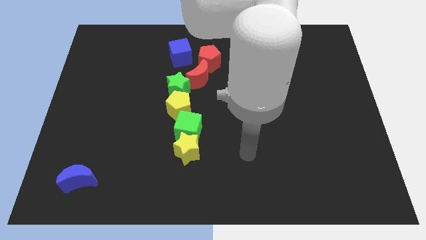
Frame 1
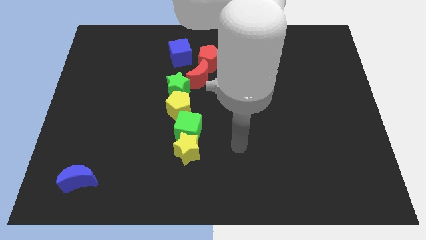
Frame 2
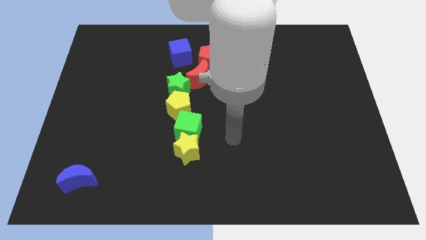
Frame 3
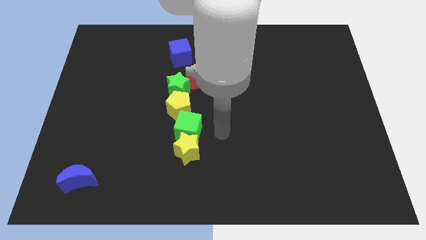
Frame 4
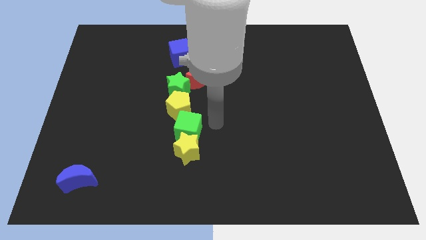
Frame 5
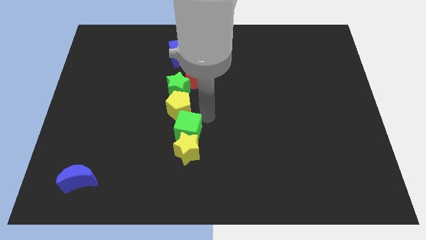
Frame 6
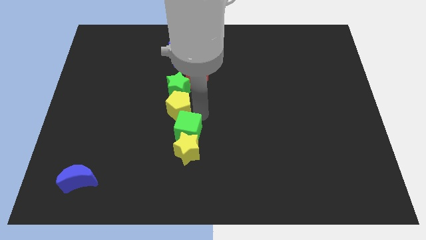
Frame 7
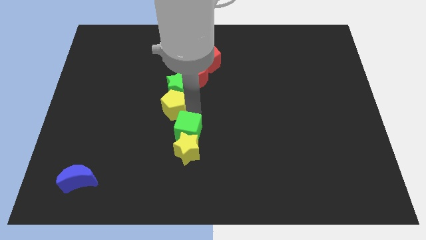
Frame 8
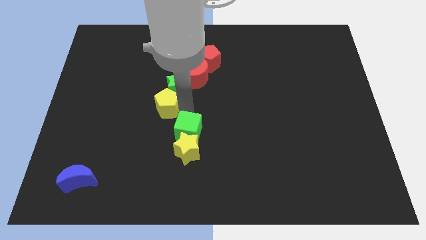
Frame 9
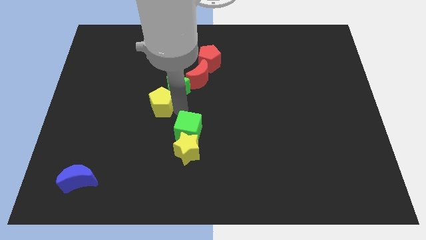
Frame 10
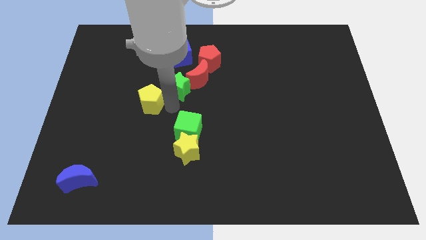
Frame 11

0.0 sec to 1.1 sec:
slightly move the yellow pentagon to the left

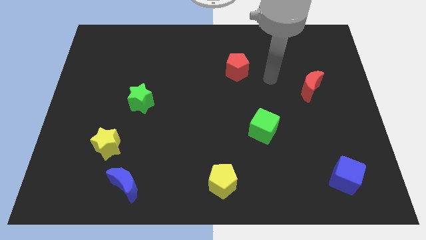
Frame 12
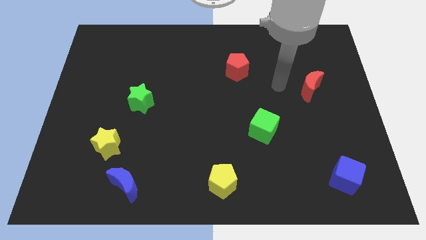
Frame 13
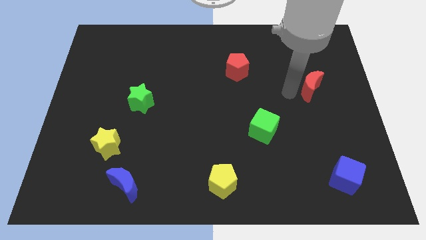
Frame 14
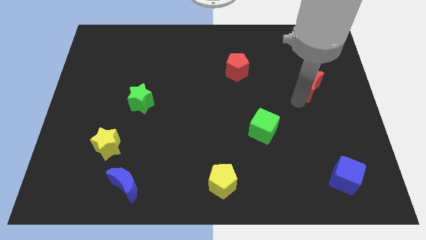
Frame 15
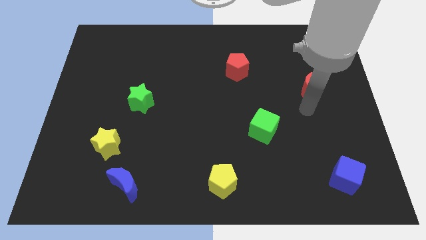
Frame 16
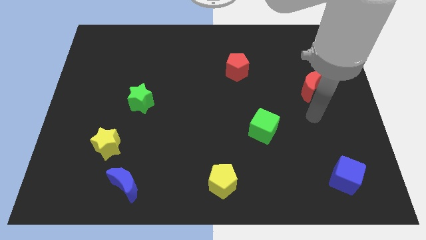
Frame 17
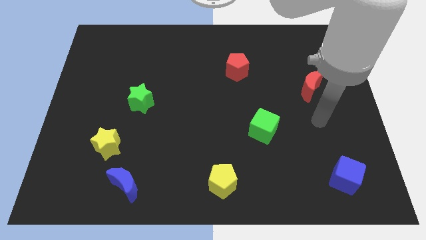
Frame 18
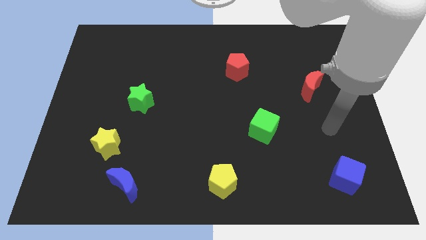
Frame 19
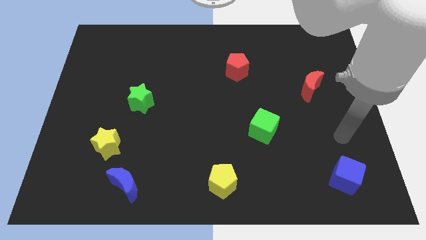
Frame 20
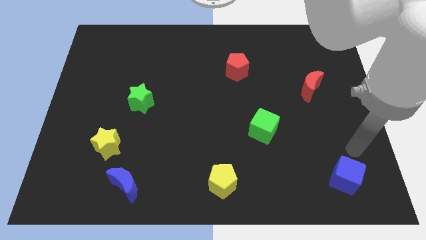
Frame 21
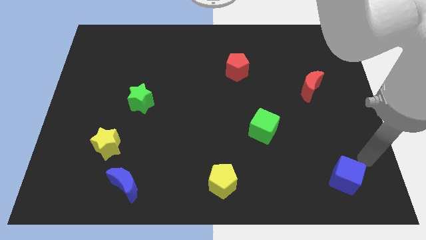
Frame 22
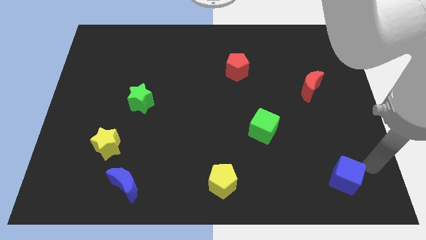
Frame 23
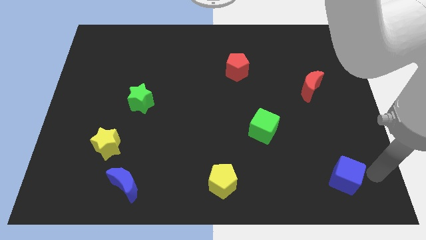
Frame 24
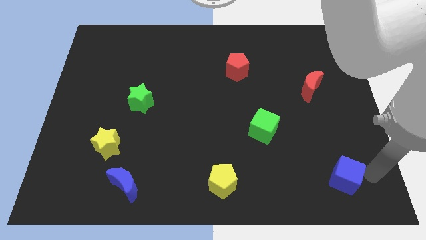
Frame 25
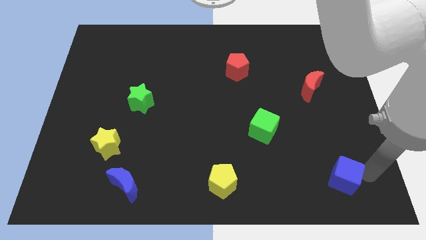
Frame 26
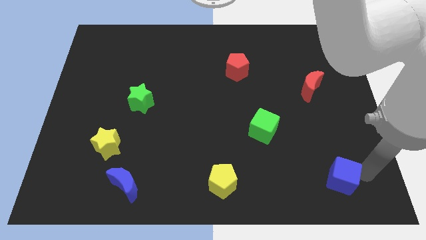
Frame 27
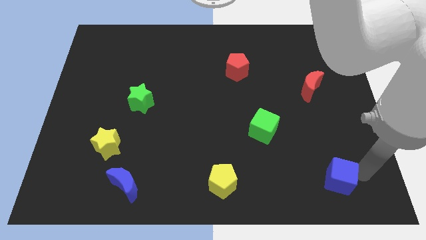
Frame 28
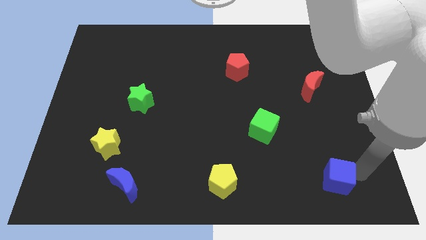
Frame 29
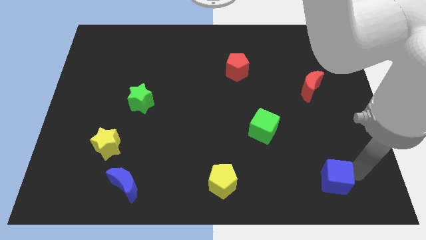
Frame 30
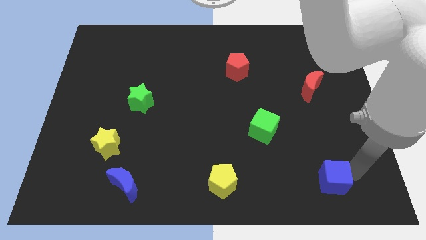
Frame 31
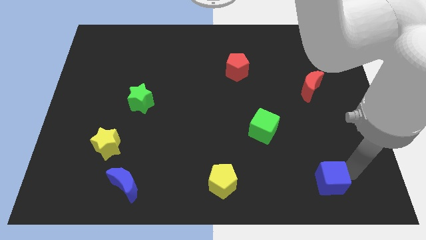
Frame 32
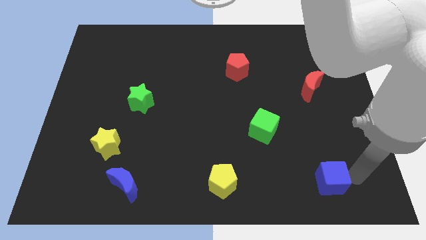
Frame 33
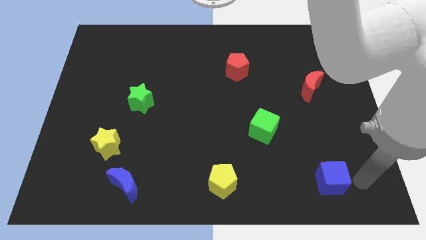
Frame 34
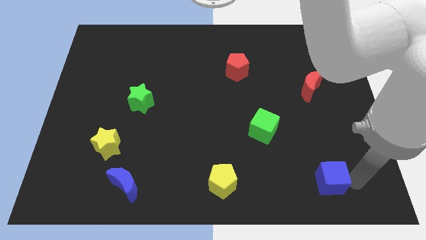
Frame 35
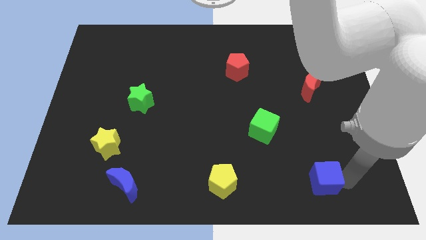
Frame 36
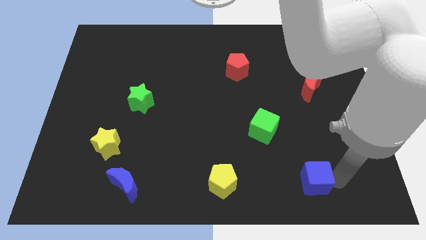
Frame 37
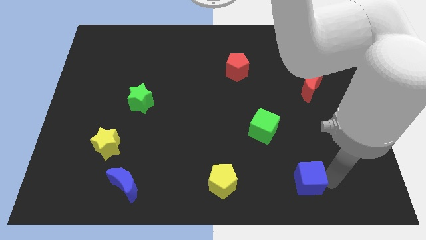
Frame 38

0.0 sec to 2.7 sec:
slightly push the blue cube to the left

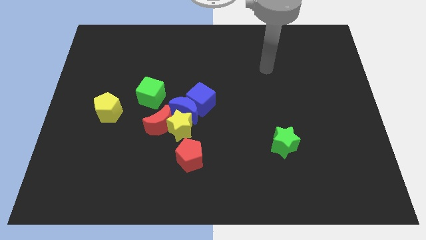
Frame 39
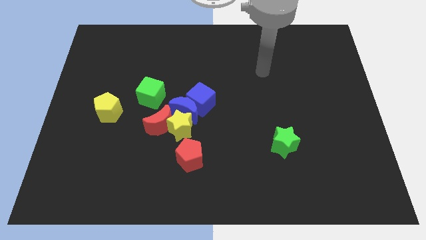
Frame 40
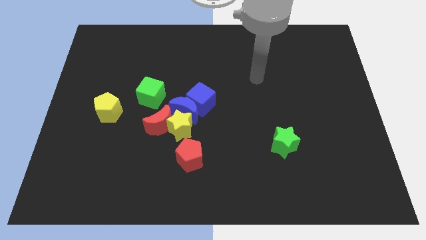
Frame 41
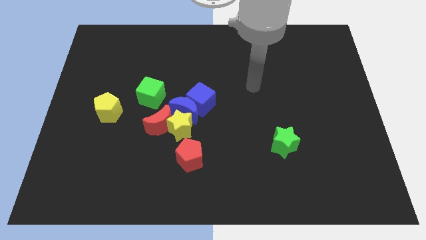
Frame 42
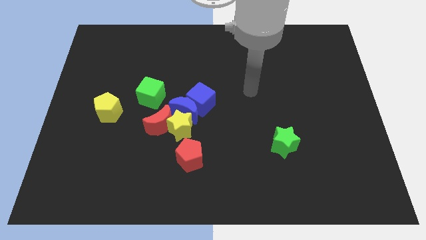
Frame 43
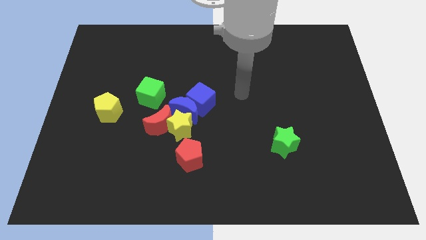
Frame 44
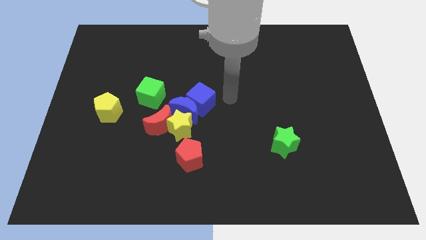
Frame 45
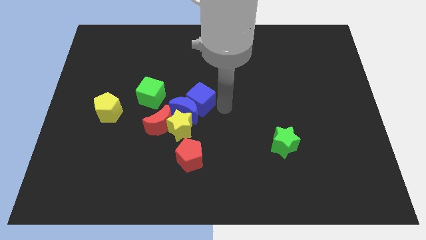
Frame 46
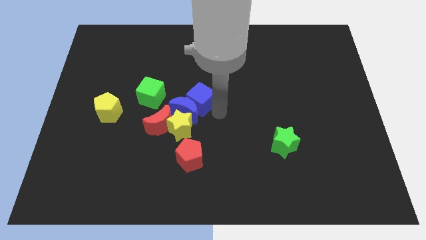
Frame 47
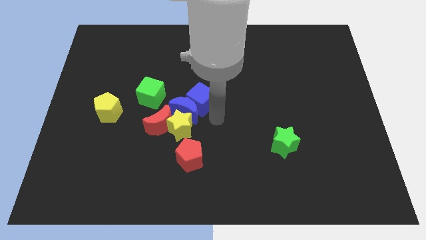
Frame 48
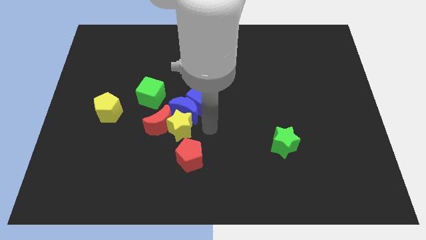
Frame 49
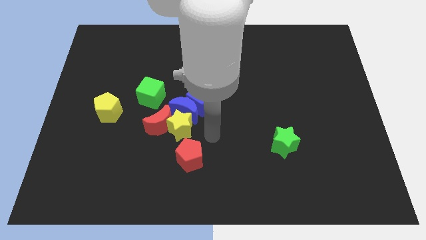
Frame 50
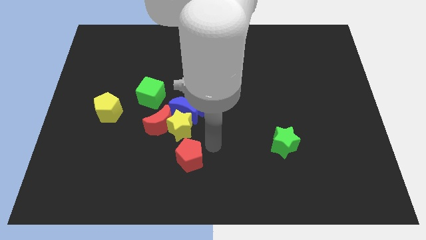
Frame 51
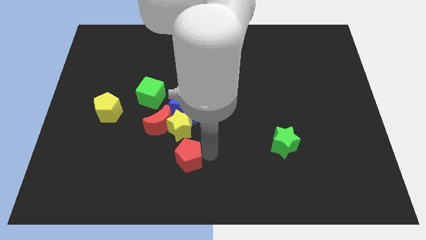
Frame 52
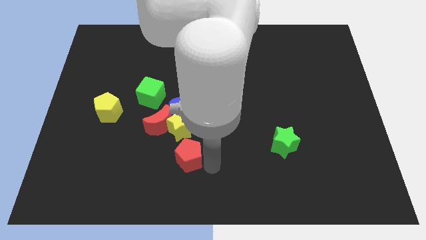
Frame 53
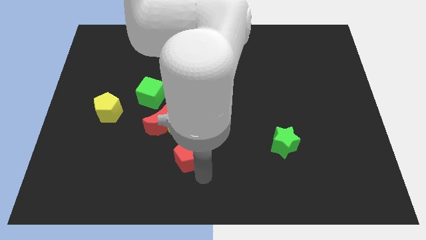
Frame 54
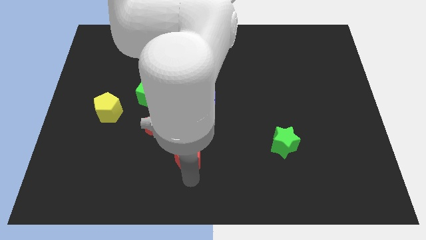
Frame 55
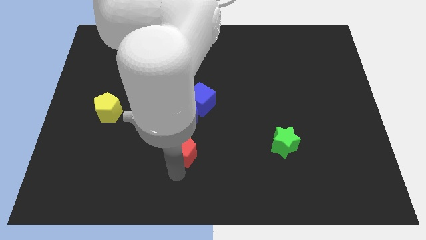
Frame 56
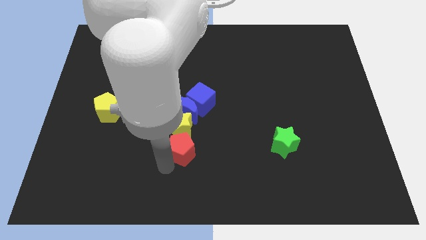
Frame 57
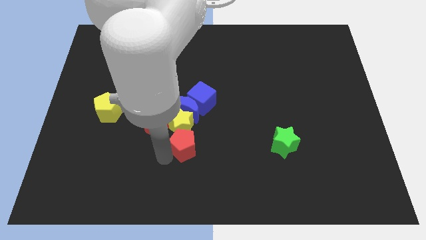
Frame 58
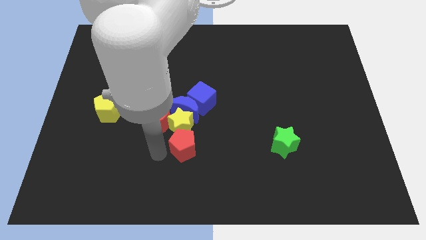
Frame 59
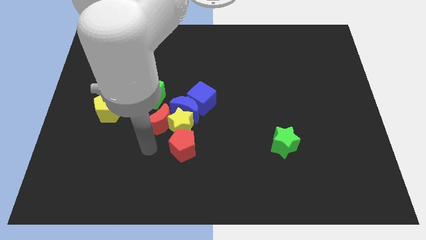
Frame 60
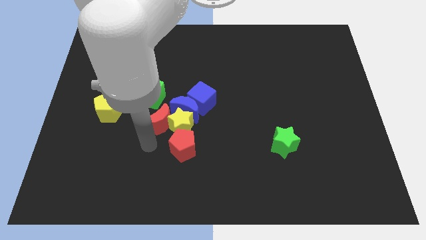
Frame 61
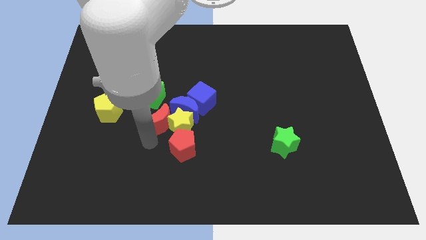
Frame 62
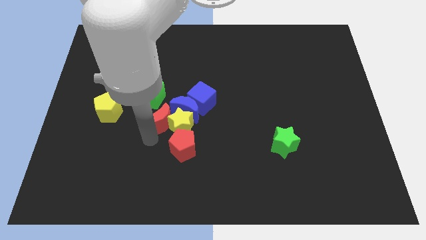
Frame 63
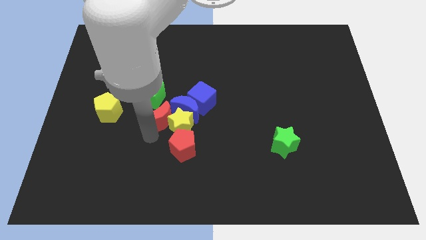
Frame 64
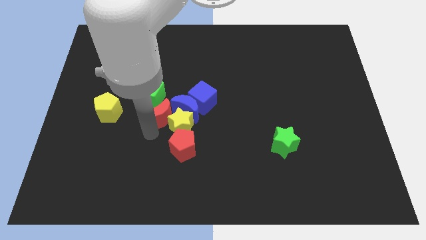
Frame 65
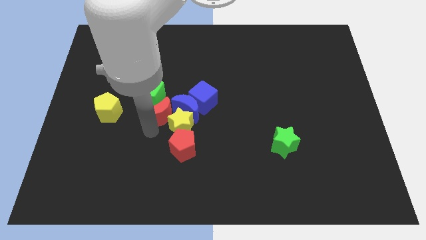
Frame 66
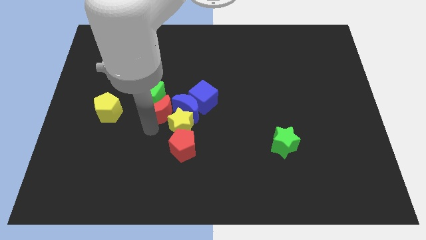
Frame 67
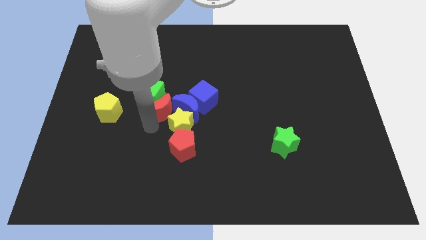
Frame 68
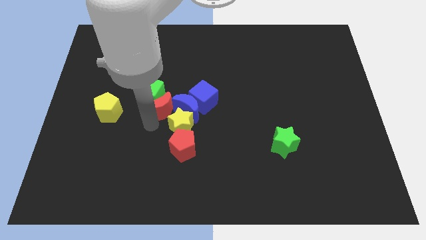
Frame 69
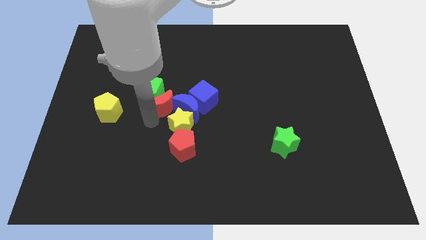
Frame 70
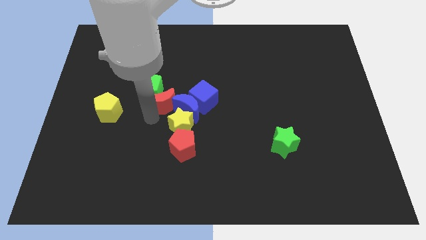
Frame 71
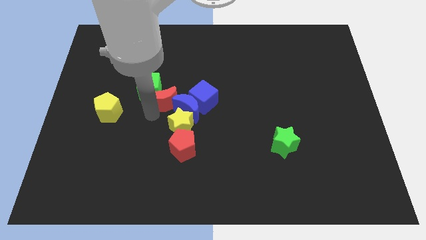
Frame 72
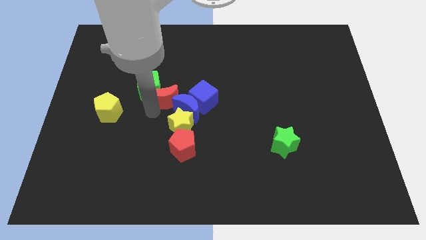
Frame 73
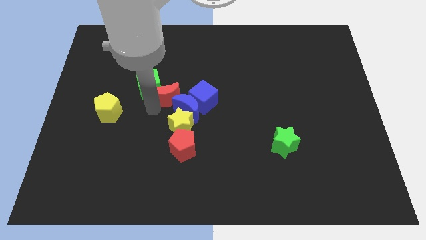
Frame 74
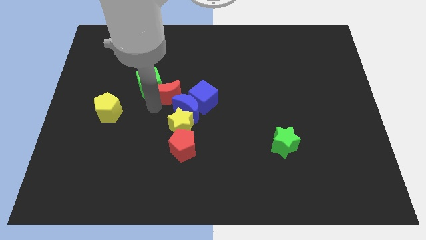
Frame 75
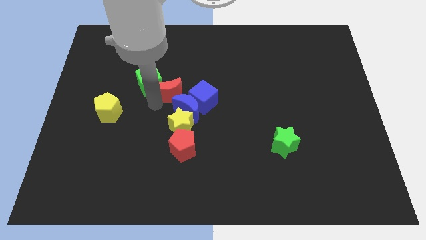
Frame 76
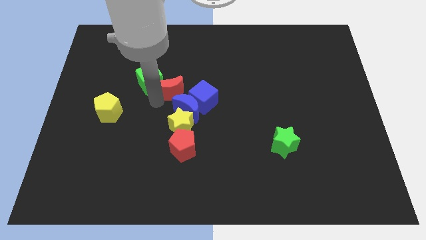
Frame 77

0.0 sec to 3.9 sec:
slightly move the red moon upwards and then right

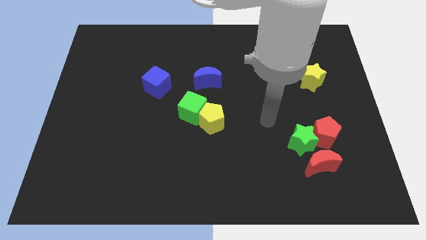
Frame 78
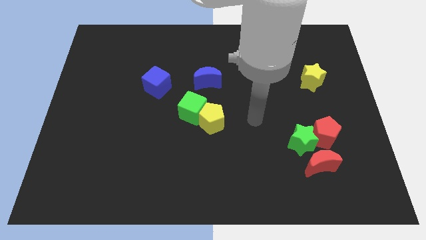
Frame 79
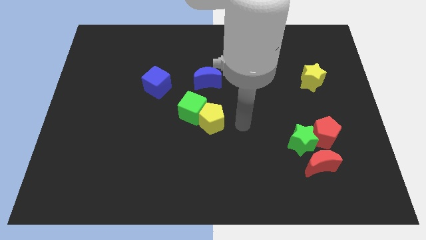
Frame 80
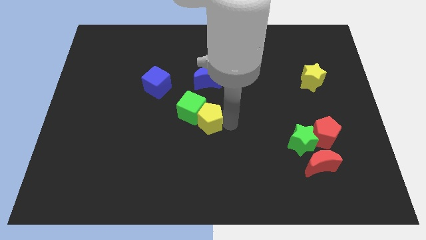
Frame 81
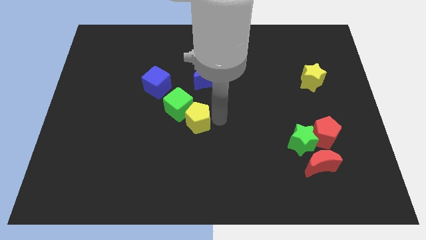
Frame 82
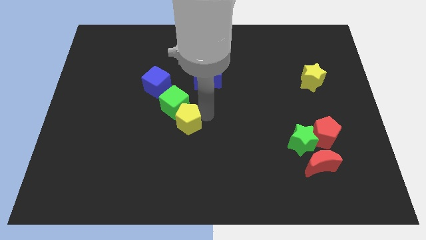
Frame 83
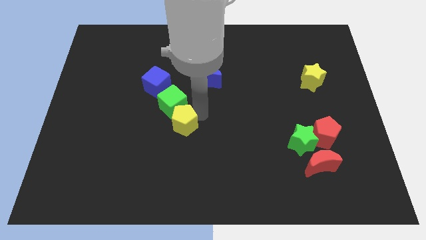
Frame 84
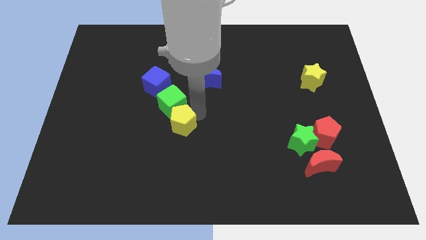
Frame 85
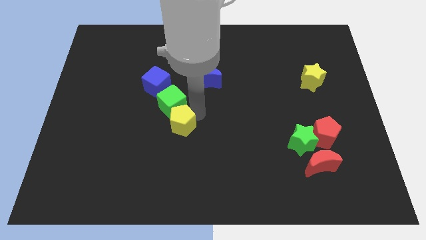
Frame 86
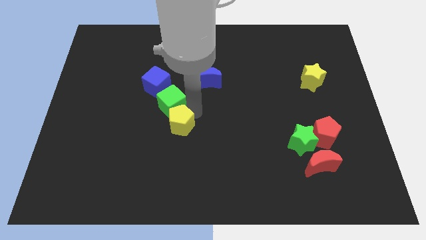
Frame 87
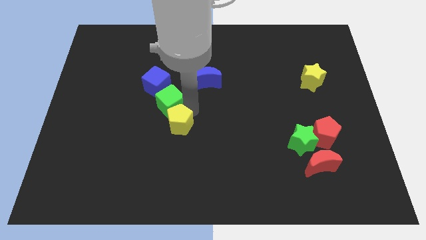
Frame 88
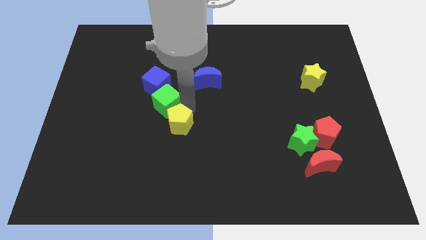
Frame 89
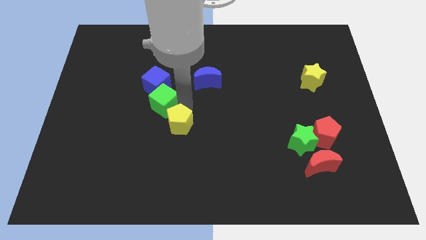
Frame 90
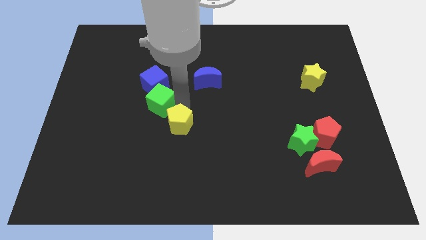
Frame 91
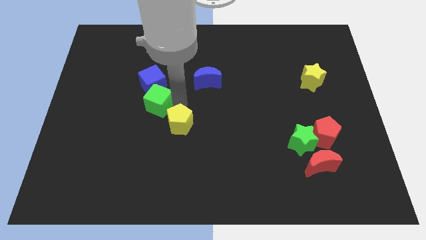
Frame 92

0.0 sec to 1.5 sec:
push the green cube slightly diagonally upwards and to the left
